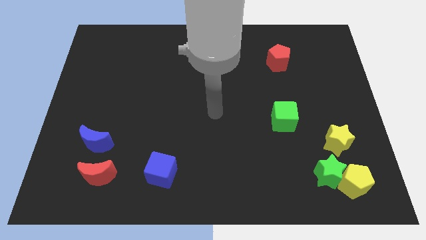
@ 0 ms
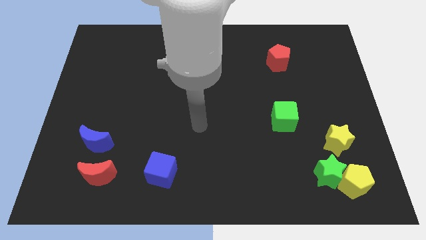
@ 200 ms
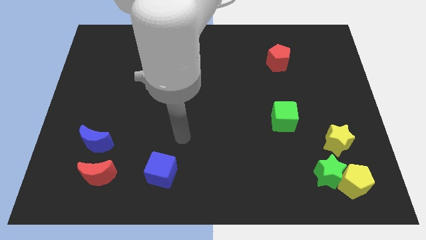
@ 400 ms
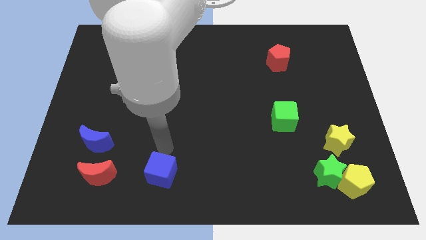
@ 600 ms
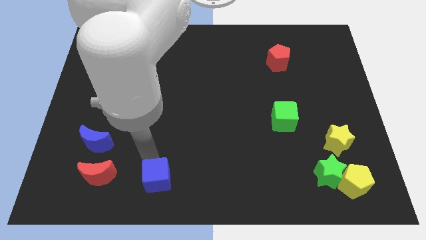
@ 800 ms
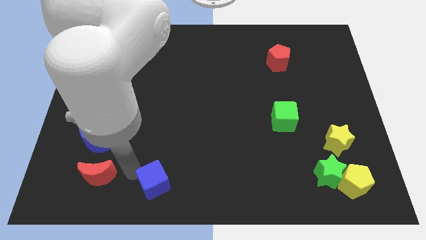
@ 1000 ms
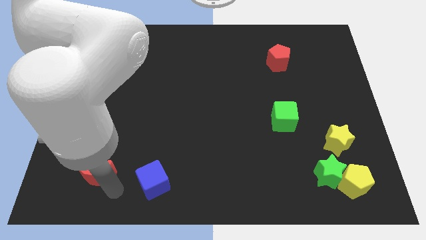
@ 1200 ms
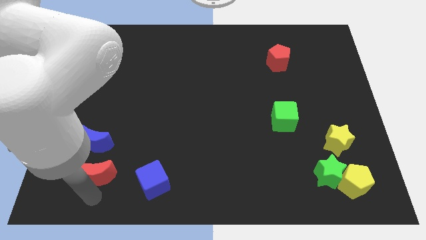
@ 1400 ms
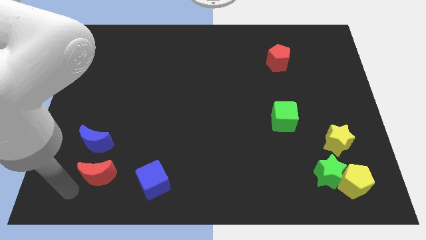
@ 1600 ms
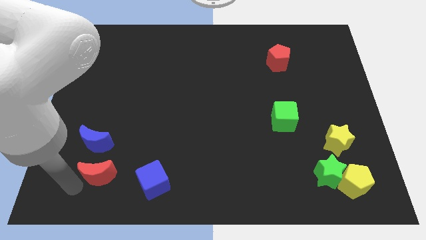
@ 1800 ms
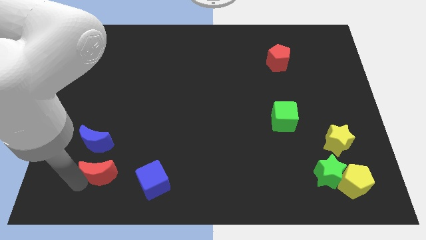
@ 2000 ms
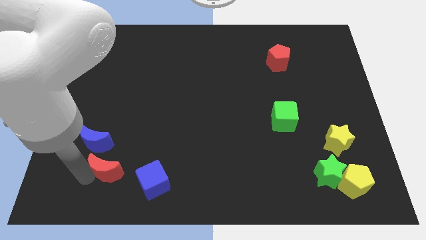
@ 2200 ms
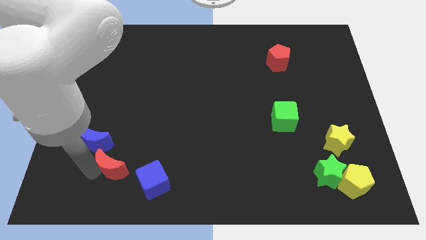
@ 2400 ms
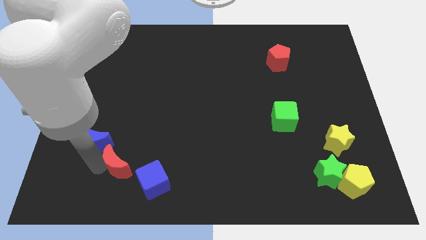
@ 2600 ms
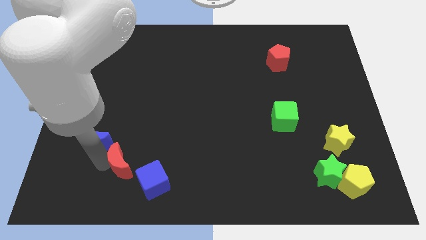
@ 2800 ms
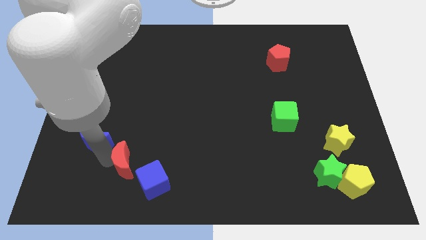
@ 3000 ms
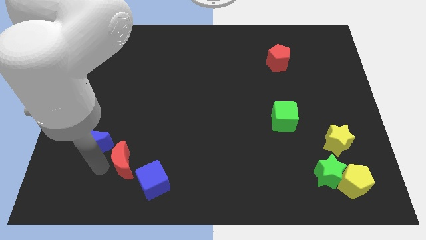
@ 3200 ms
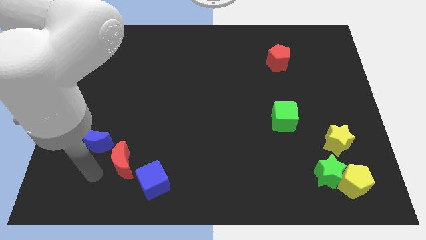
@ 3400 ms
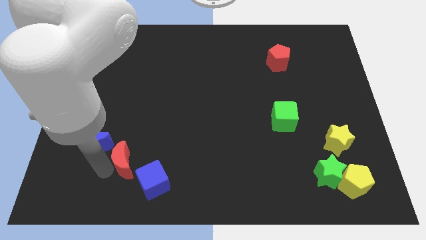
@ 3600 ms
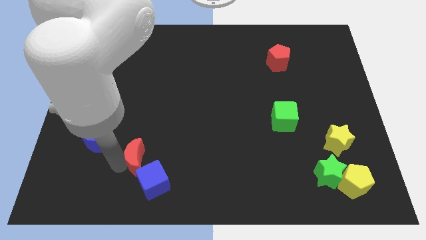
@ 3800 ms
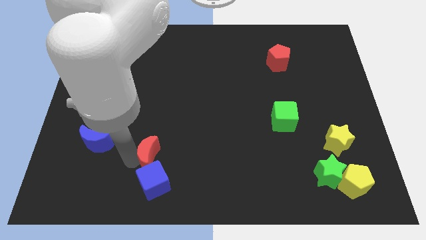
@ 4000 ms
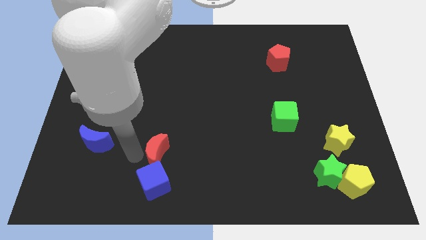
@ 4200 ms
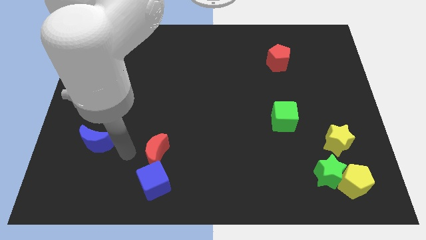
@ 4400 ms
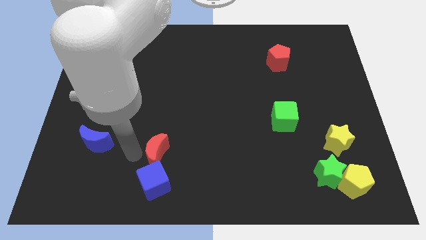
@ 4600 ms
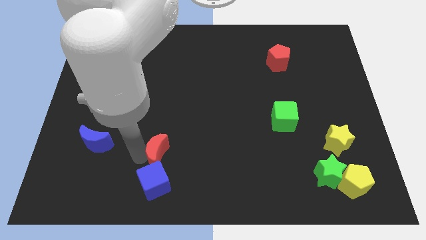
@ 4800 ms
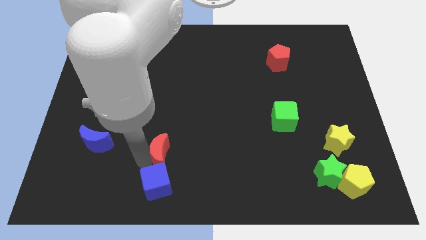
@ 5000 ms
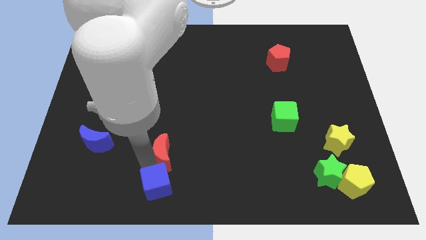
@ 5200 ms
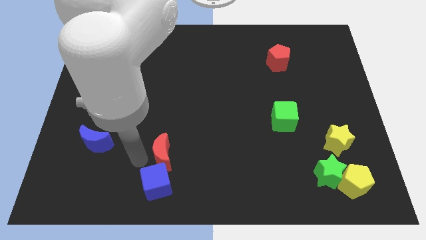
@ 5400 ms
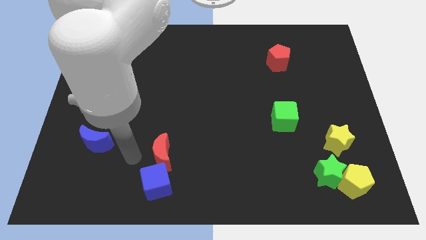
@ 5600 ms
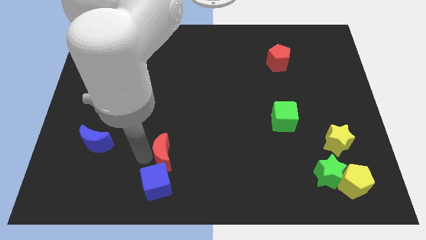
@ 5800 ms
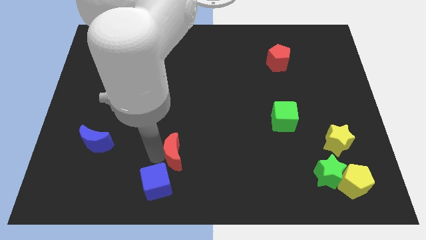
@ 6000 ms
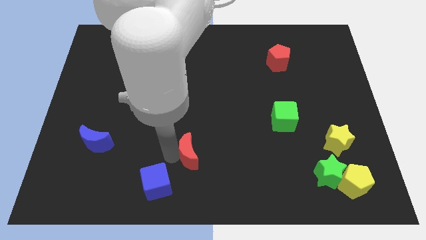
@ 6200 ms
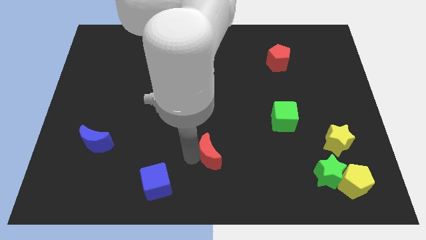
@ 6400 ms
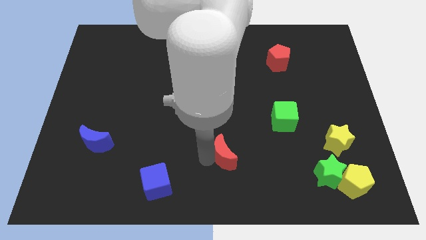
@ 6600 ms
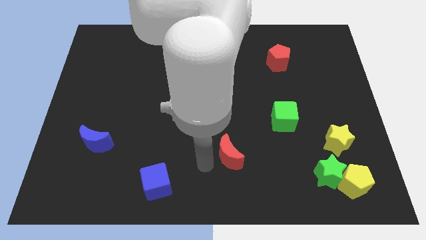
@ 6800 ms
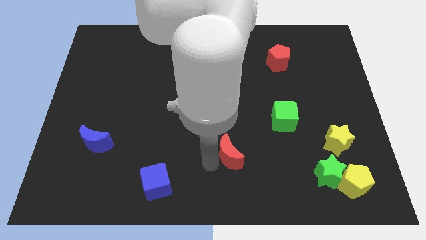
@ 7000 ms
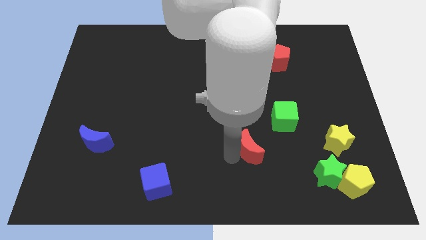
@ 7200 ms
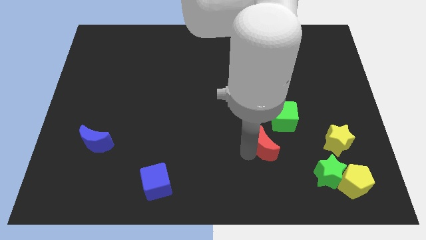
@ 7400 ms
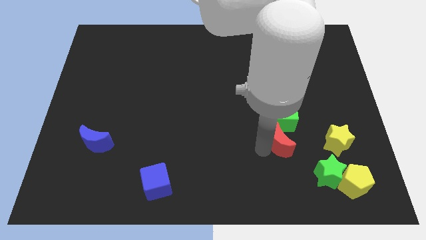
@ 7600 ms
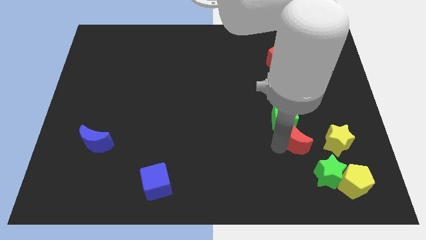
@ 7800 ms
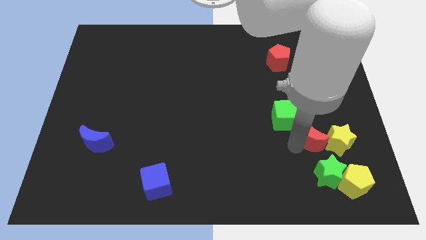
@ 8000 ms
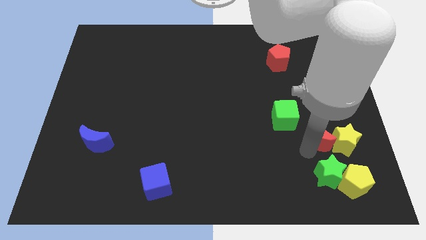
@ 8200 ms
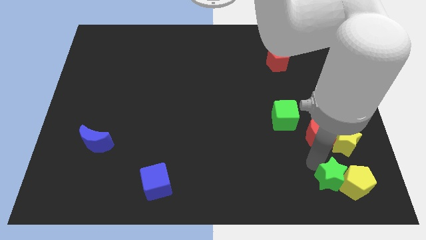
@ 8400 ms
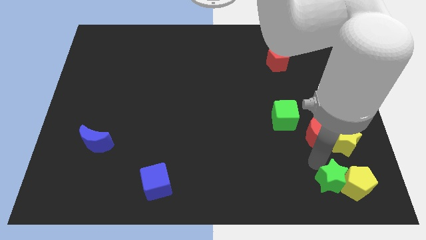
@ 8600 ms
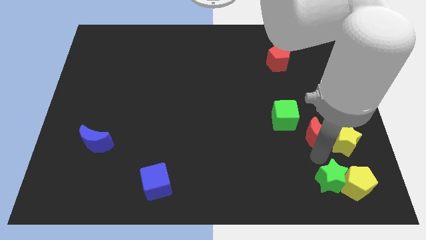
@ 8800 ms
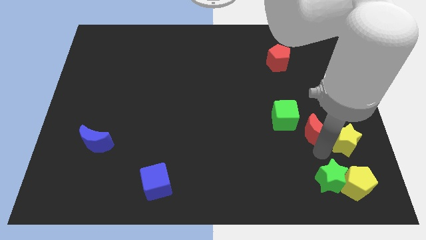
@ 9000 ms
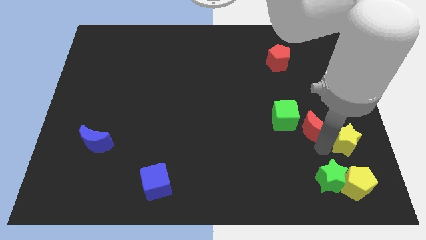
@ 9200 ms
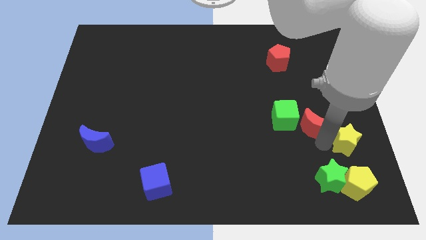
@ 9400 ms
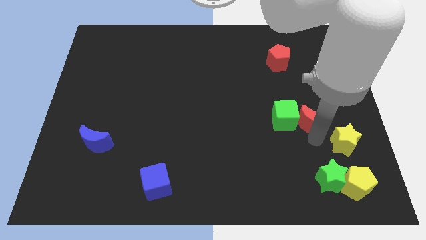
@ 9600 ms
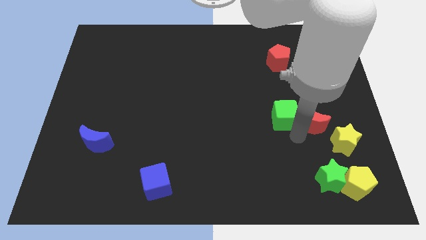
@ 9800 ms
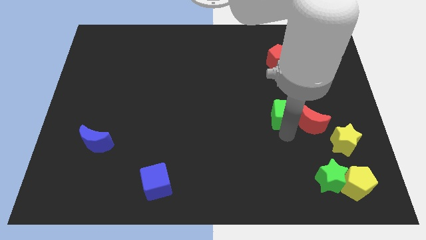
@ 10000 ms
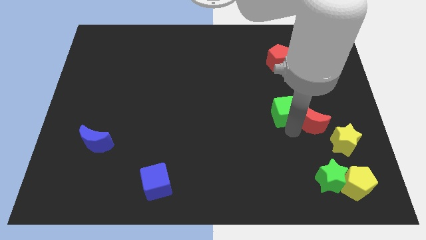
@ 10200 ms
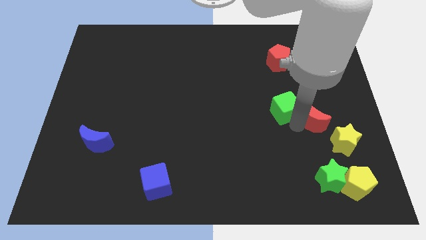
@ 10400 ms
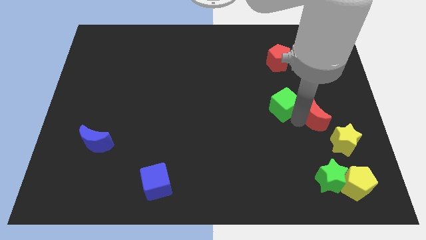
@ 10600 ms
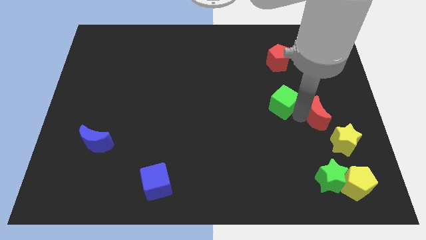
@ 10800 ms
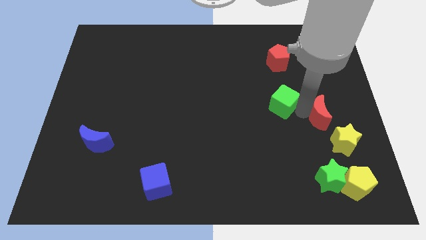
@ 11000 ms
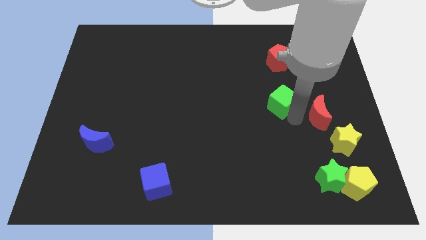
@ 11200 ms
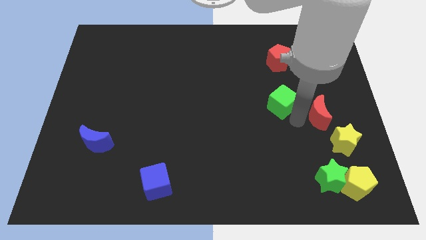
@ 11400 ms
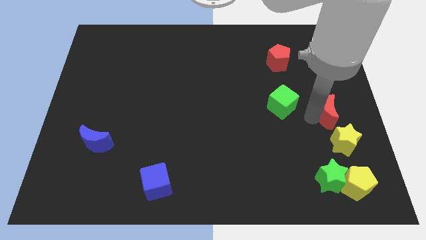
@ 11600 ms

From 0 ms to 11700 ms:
put the red moon to the center right

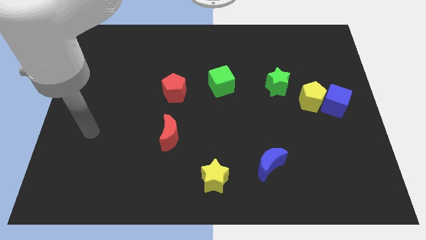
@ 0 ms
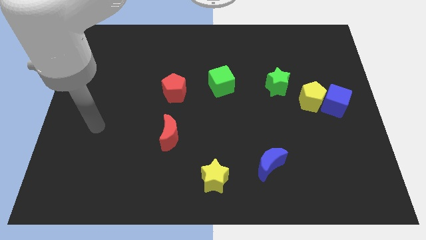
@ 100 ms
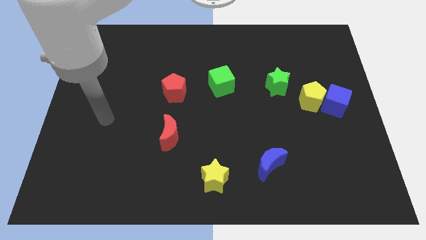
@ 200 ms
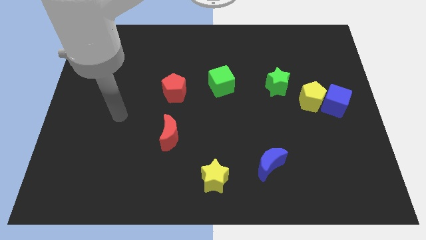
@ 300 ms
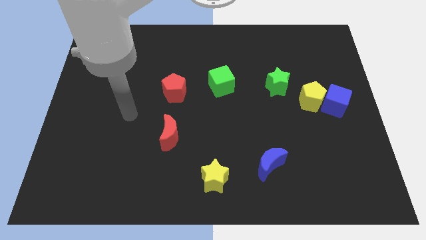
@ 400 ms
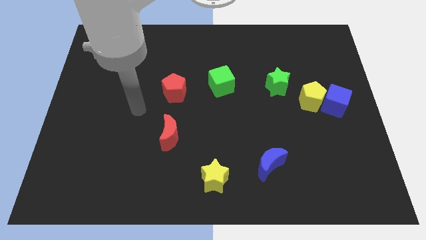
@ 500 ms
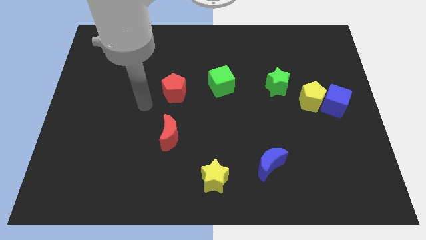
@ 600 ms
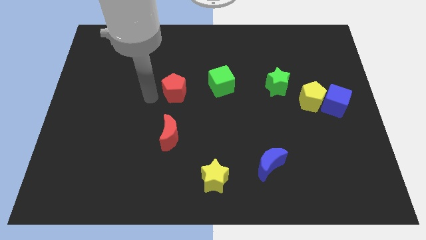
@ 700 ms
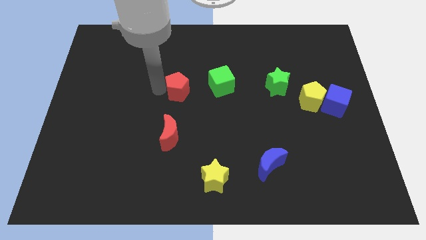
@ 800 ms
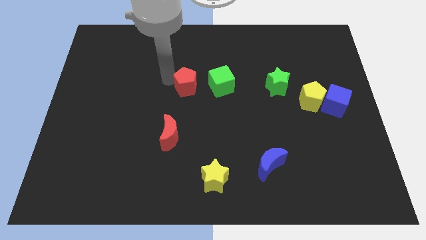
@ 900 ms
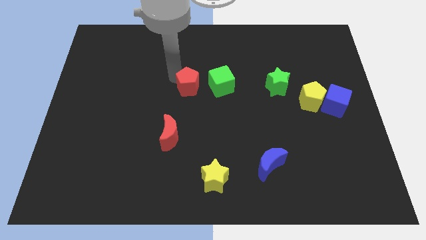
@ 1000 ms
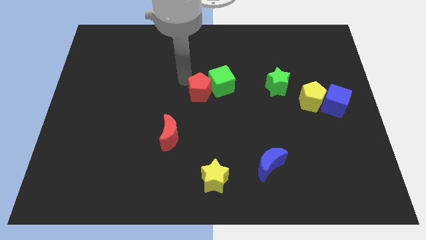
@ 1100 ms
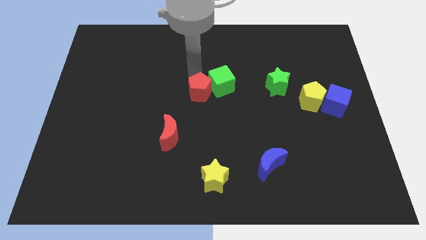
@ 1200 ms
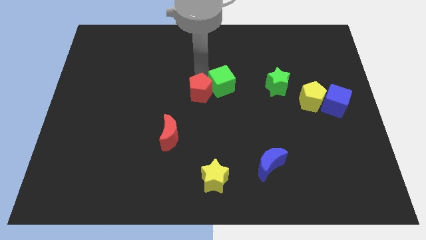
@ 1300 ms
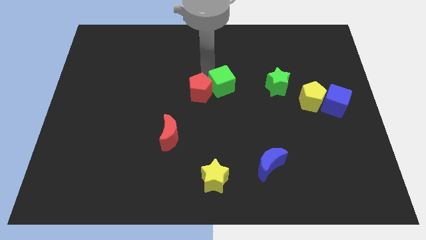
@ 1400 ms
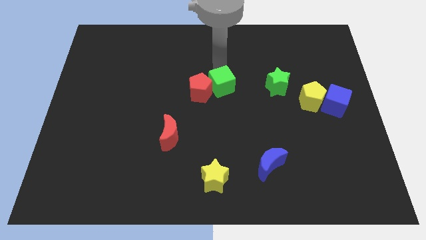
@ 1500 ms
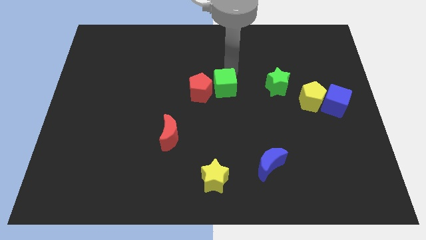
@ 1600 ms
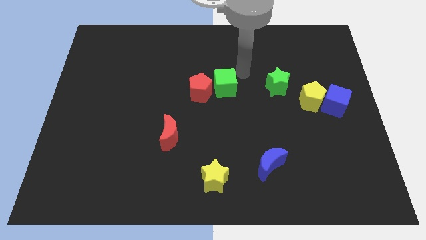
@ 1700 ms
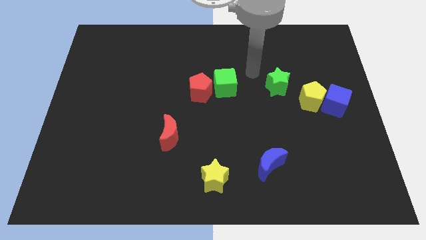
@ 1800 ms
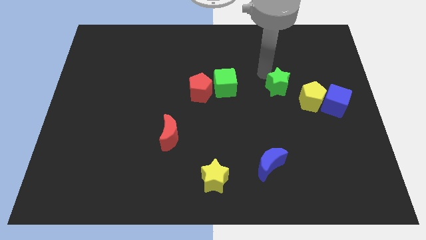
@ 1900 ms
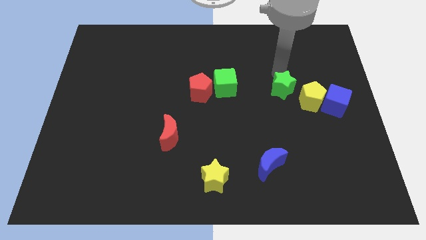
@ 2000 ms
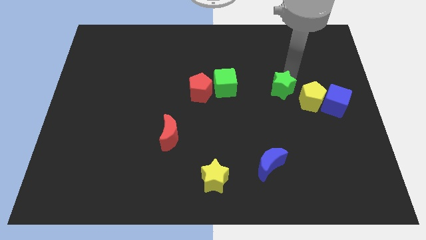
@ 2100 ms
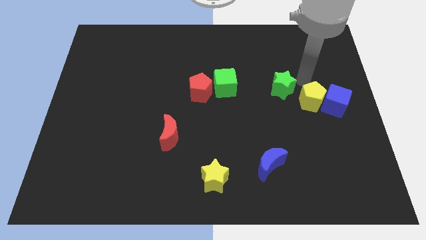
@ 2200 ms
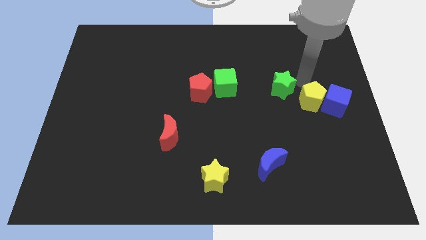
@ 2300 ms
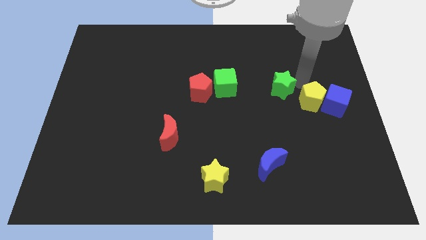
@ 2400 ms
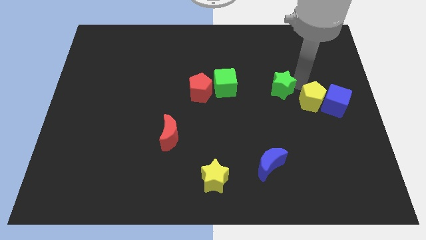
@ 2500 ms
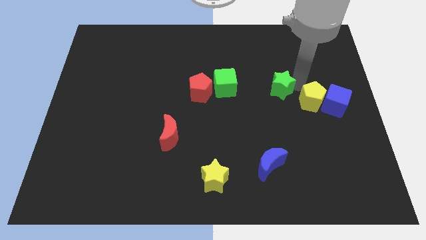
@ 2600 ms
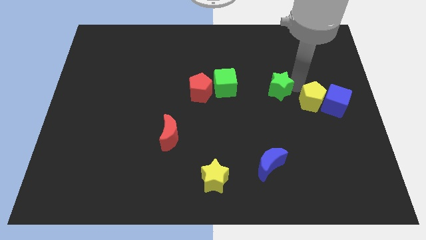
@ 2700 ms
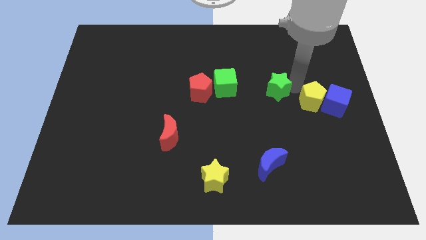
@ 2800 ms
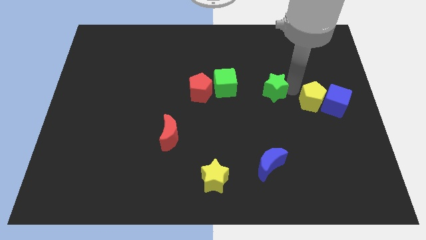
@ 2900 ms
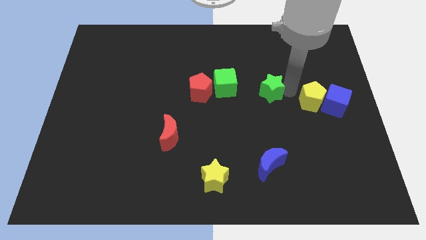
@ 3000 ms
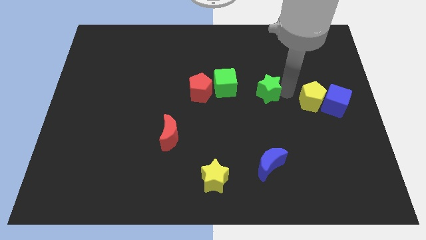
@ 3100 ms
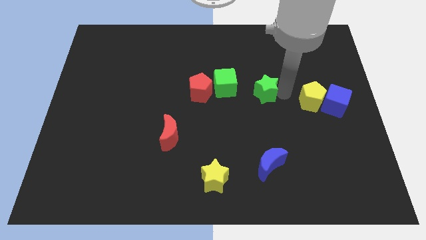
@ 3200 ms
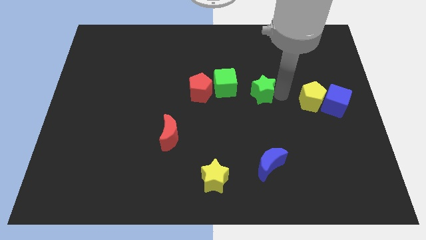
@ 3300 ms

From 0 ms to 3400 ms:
move the green star to the middle of the board
